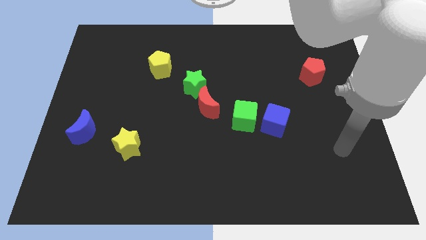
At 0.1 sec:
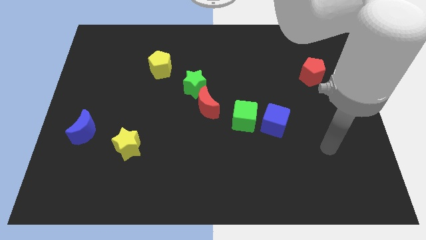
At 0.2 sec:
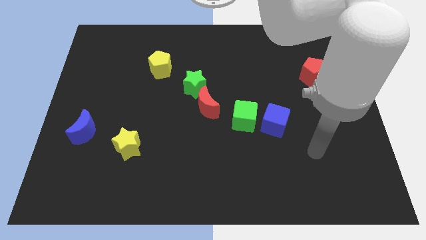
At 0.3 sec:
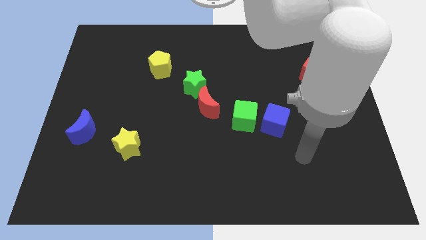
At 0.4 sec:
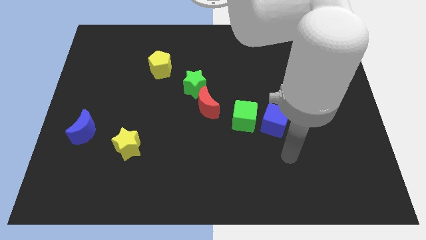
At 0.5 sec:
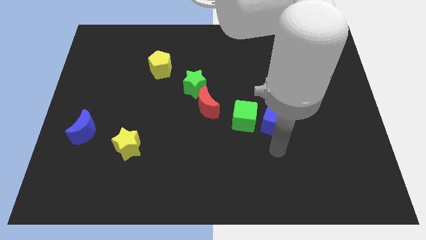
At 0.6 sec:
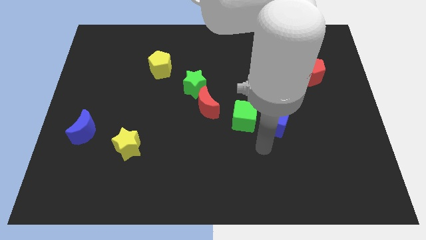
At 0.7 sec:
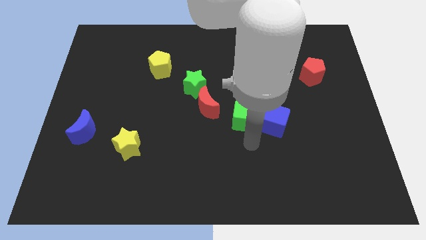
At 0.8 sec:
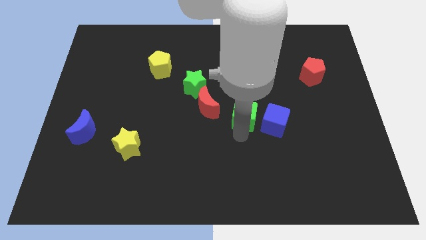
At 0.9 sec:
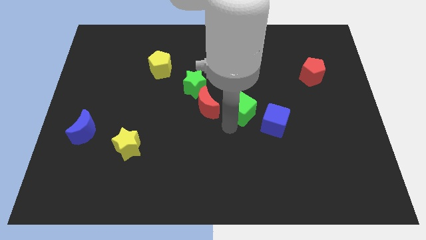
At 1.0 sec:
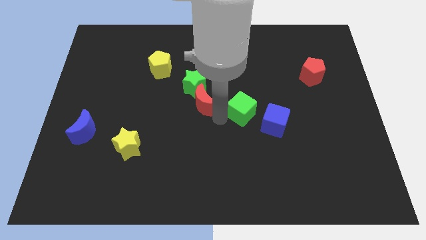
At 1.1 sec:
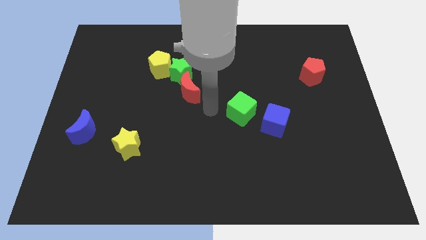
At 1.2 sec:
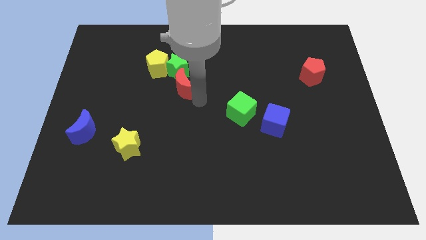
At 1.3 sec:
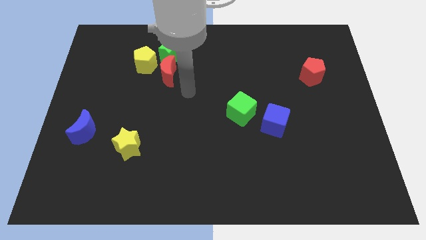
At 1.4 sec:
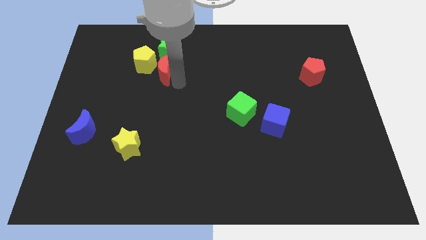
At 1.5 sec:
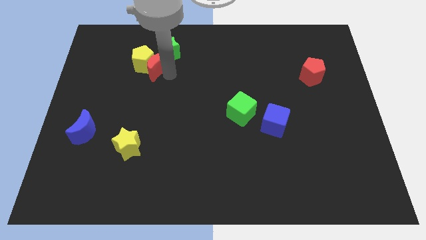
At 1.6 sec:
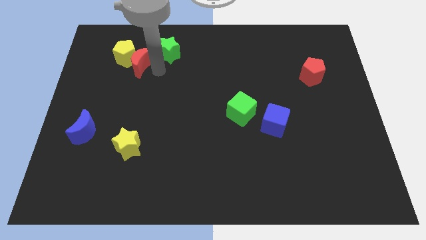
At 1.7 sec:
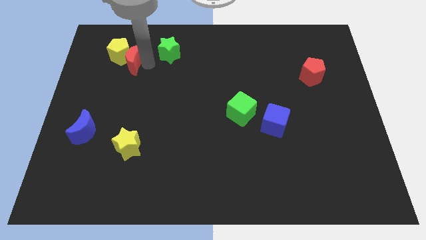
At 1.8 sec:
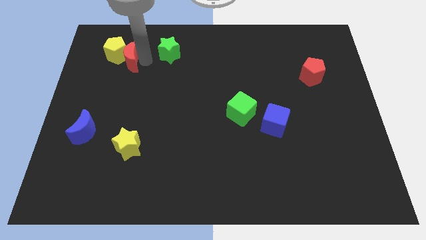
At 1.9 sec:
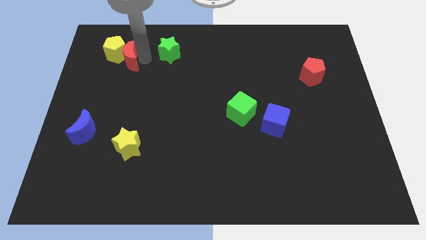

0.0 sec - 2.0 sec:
separate the green star from the red moon

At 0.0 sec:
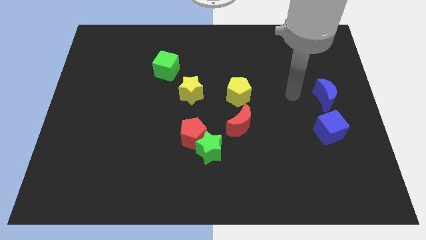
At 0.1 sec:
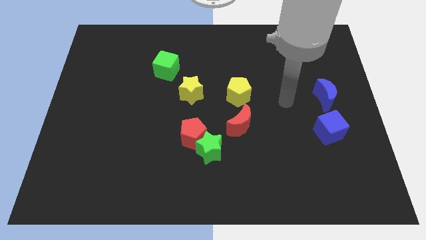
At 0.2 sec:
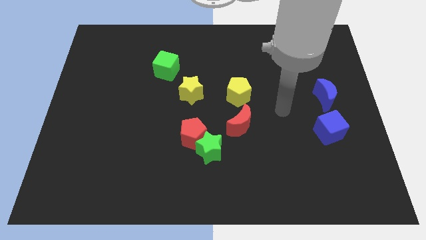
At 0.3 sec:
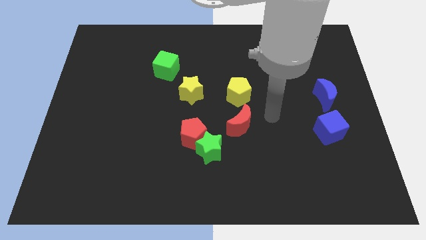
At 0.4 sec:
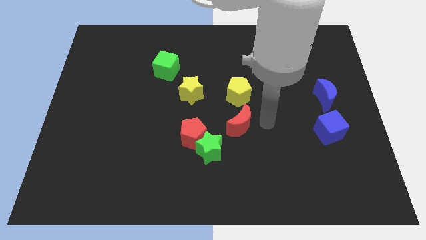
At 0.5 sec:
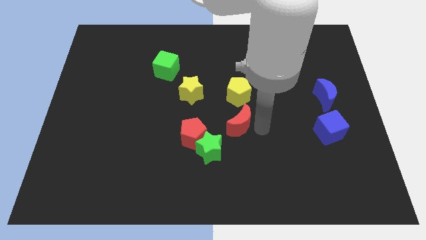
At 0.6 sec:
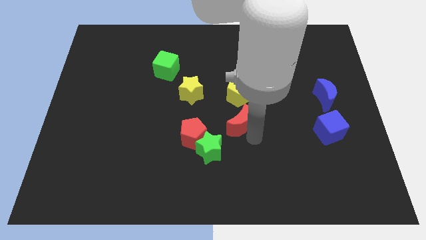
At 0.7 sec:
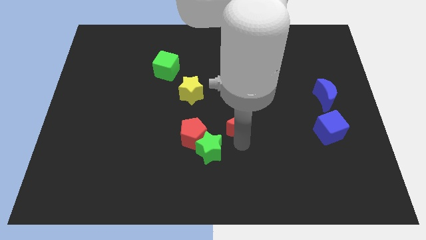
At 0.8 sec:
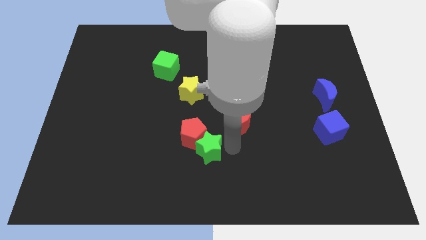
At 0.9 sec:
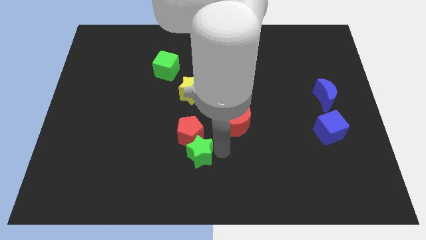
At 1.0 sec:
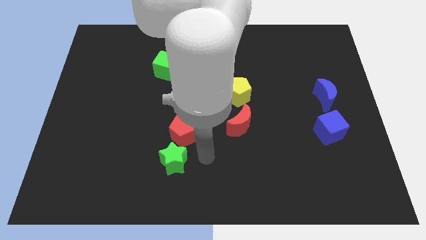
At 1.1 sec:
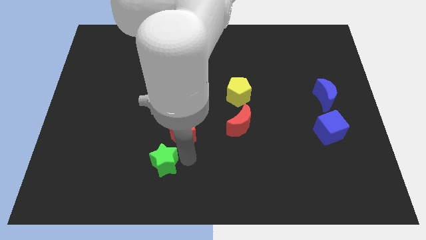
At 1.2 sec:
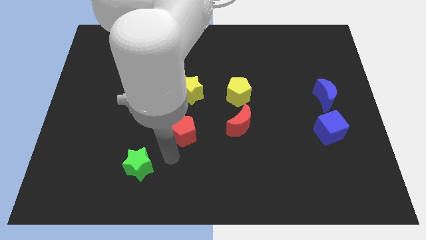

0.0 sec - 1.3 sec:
separate the red pentagon from the green star

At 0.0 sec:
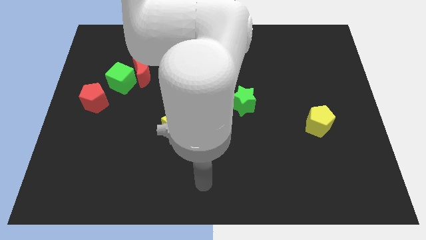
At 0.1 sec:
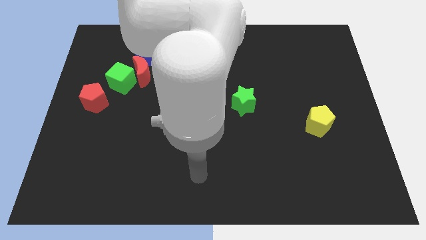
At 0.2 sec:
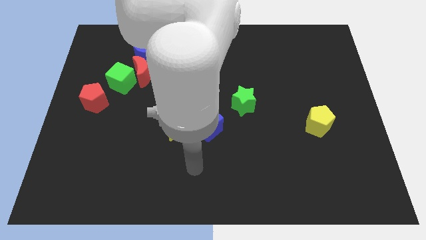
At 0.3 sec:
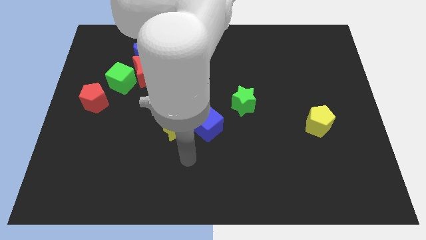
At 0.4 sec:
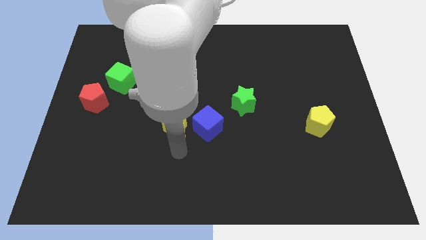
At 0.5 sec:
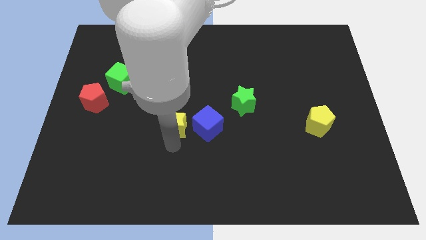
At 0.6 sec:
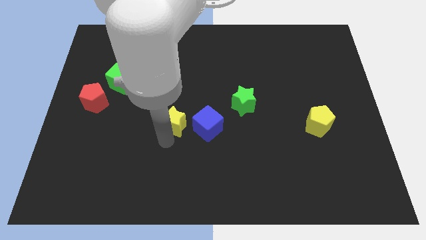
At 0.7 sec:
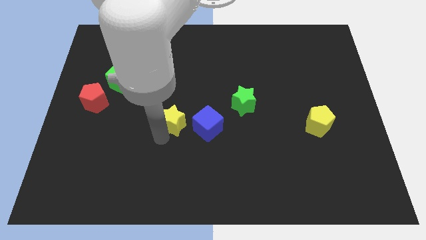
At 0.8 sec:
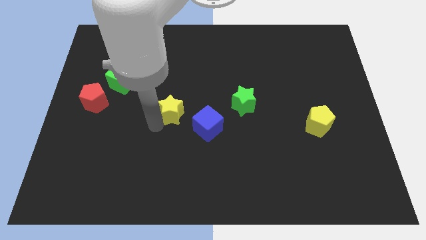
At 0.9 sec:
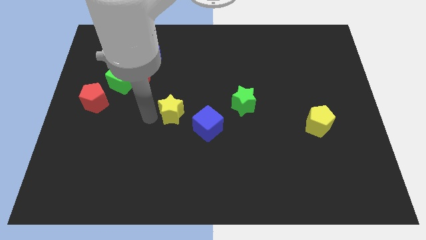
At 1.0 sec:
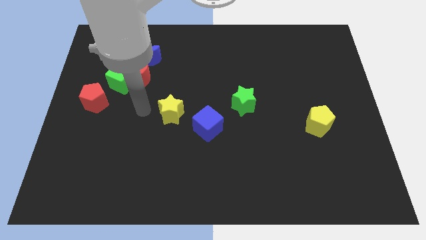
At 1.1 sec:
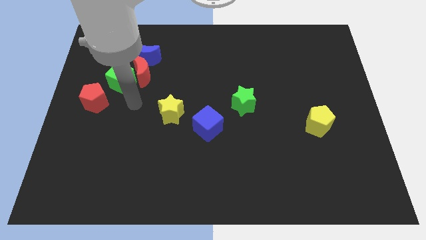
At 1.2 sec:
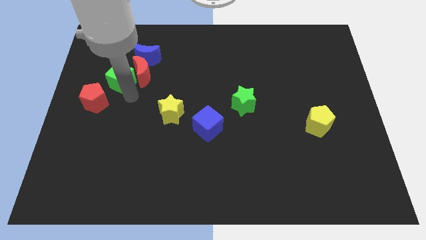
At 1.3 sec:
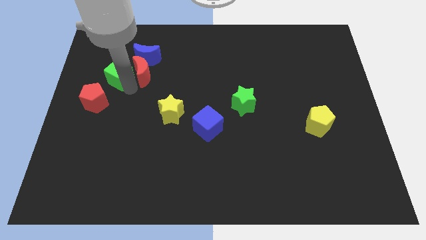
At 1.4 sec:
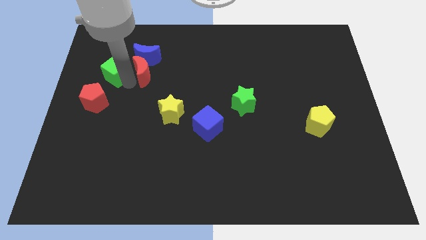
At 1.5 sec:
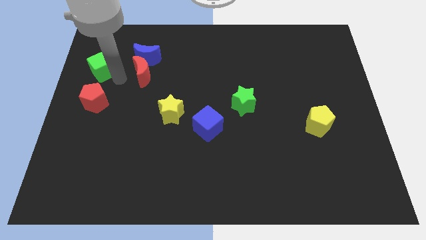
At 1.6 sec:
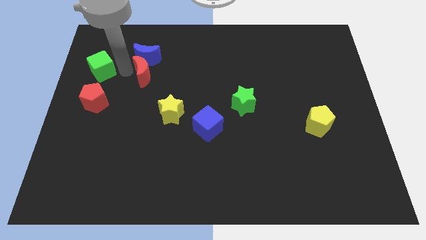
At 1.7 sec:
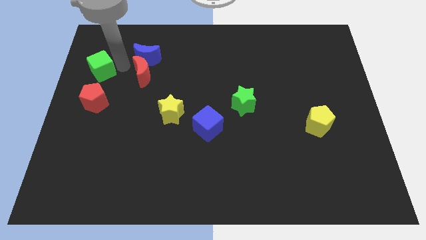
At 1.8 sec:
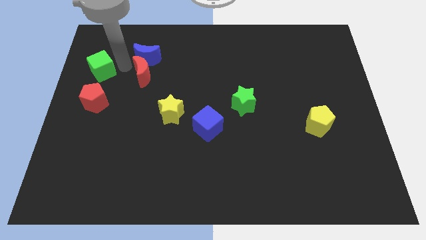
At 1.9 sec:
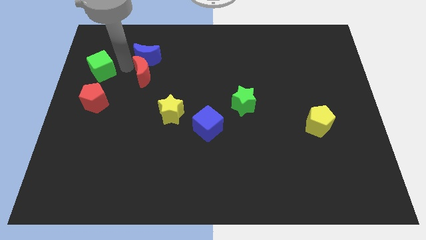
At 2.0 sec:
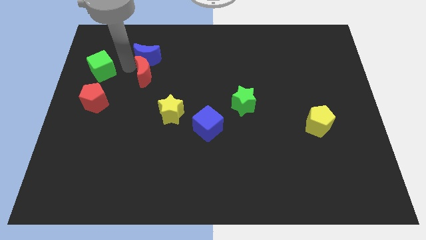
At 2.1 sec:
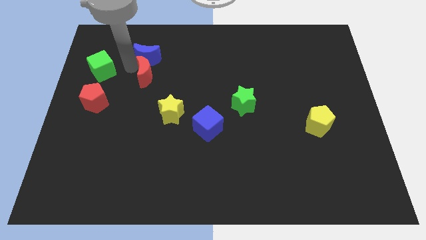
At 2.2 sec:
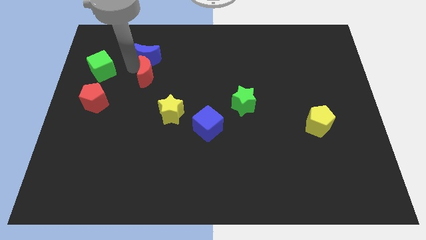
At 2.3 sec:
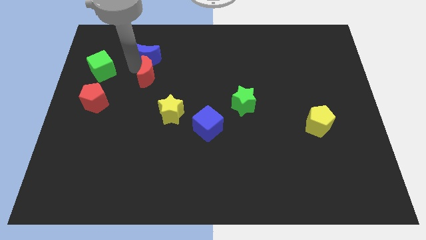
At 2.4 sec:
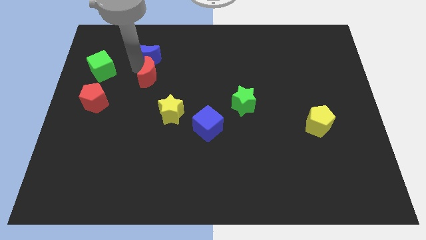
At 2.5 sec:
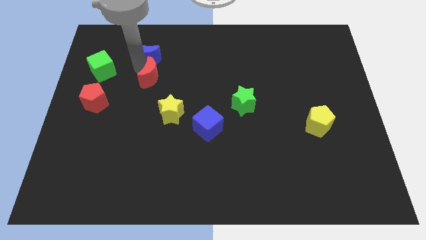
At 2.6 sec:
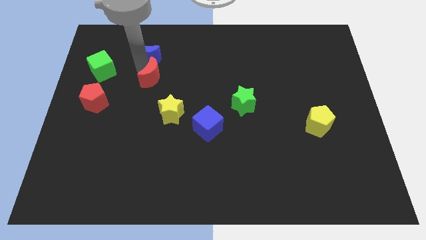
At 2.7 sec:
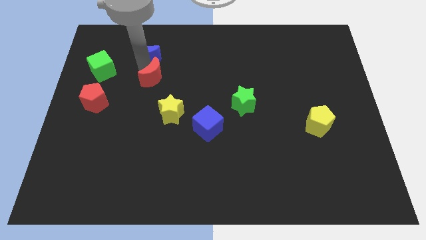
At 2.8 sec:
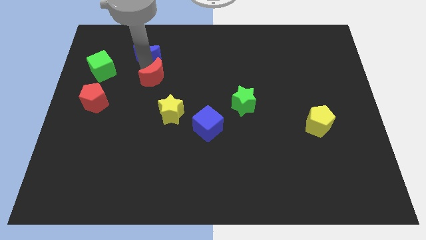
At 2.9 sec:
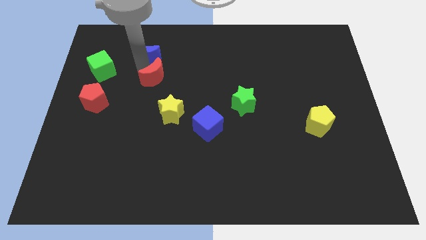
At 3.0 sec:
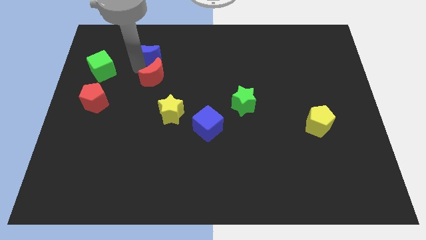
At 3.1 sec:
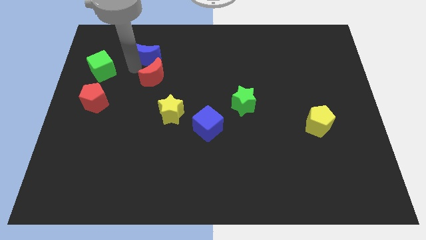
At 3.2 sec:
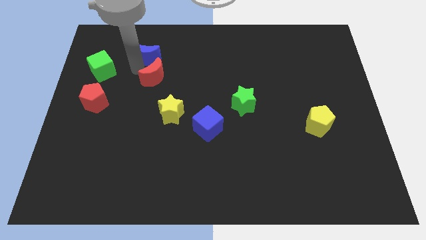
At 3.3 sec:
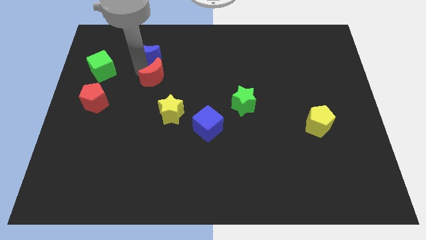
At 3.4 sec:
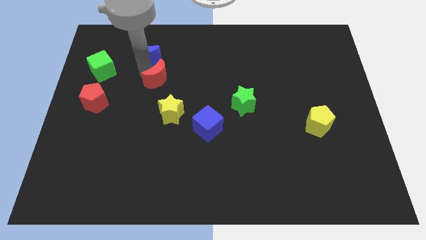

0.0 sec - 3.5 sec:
move the red moon away from the green cube and blue moon

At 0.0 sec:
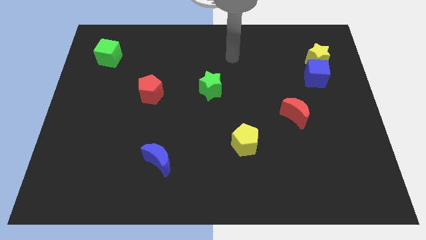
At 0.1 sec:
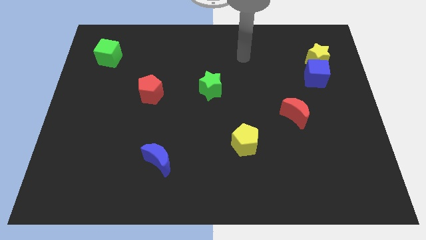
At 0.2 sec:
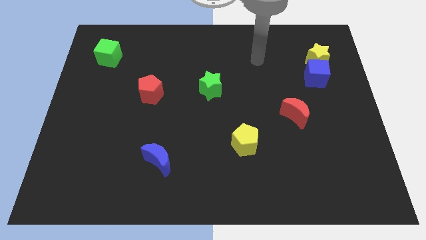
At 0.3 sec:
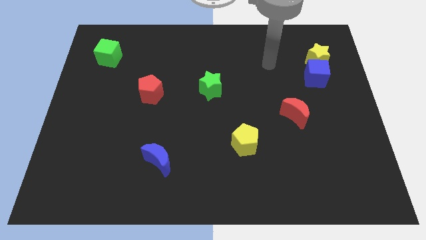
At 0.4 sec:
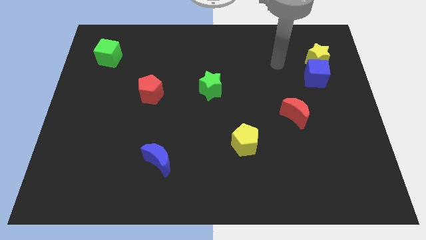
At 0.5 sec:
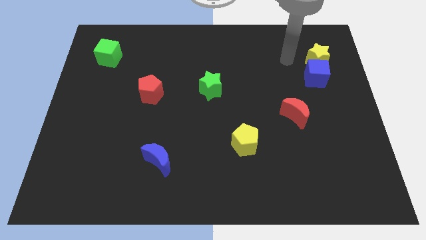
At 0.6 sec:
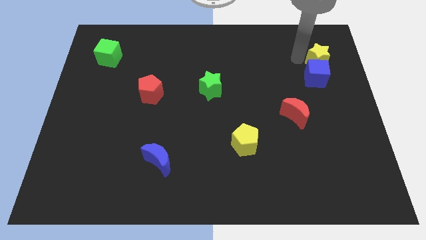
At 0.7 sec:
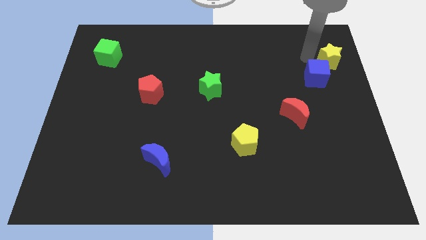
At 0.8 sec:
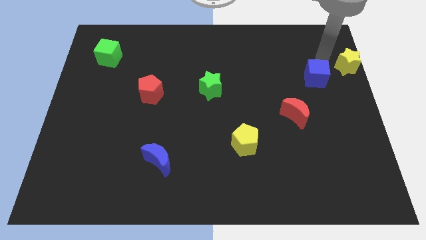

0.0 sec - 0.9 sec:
separate the blue cube from the yellow star

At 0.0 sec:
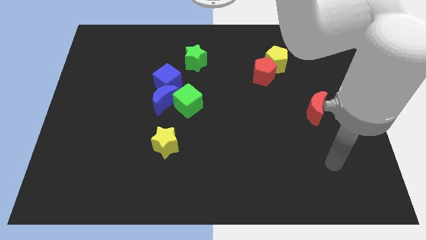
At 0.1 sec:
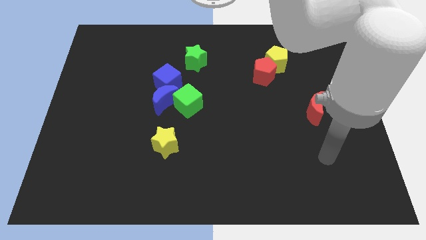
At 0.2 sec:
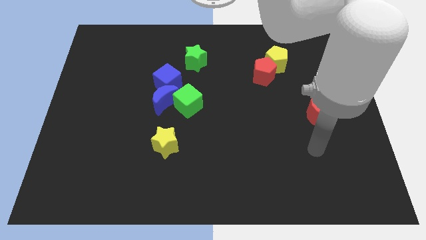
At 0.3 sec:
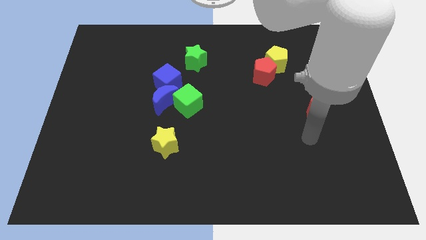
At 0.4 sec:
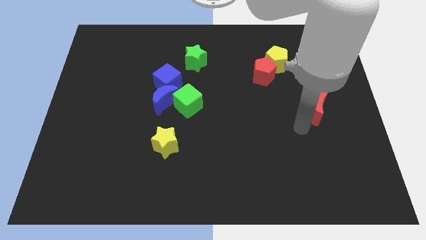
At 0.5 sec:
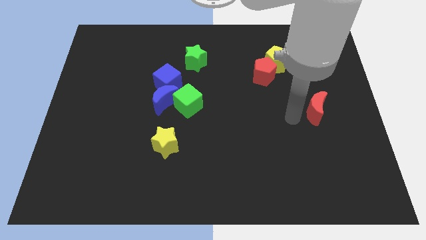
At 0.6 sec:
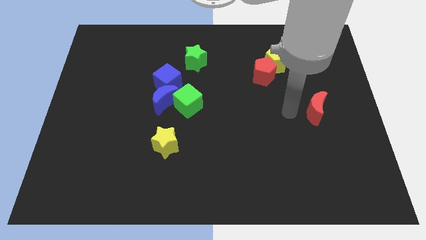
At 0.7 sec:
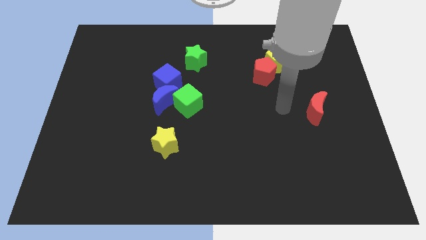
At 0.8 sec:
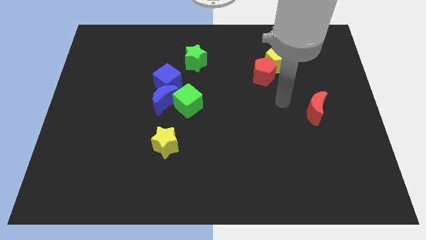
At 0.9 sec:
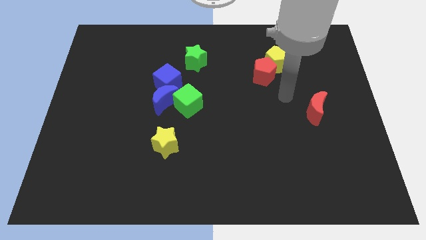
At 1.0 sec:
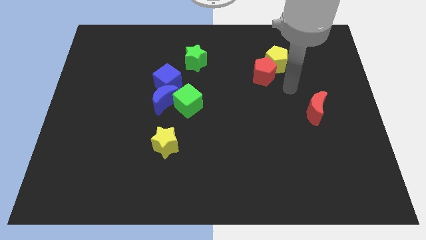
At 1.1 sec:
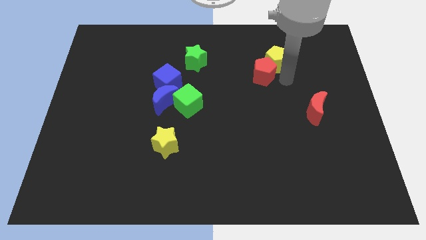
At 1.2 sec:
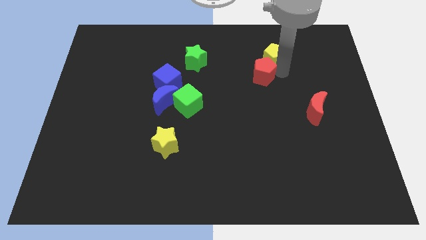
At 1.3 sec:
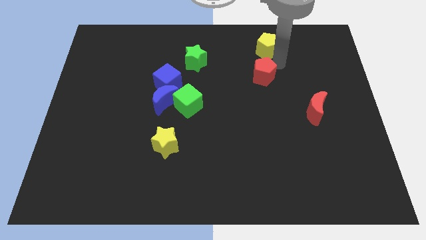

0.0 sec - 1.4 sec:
separate the red pentagon from the yellow pentagon

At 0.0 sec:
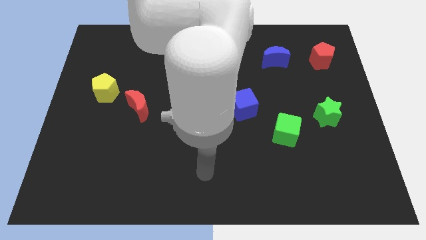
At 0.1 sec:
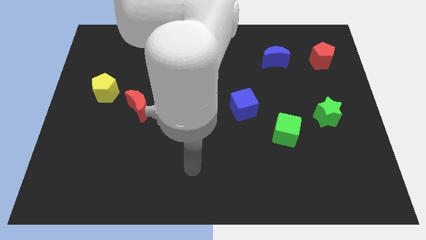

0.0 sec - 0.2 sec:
pull the red moon apart from the yellow pentagon

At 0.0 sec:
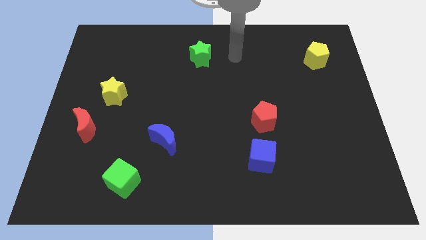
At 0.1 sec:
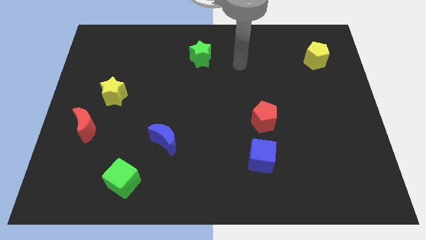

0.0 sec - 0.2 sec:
pull the red pentagon apart from the blue cube
